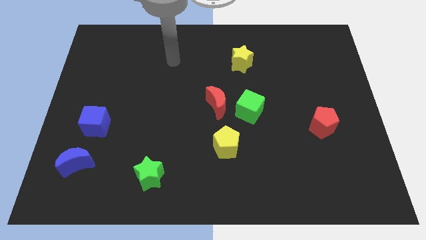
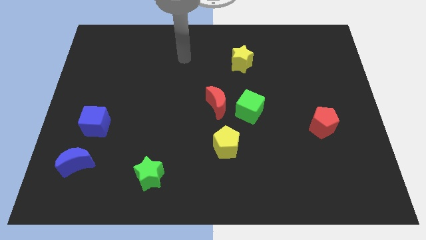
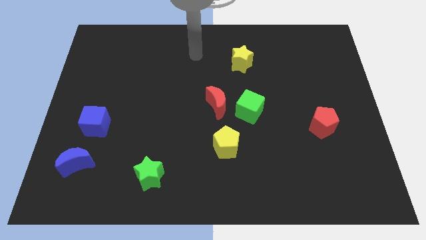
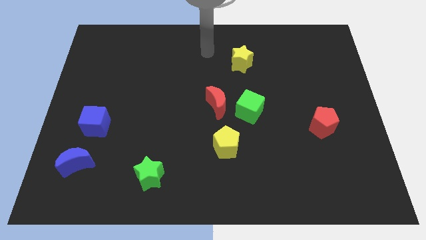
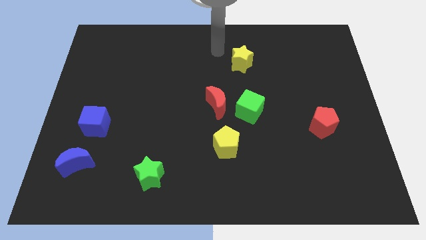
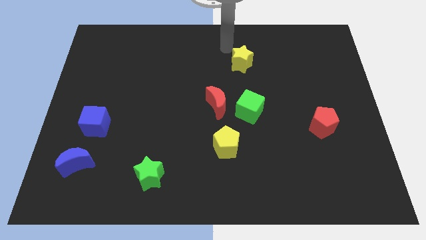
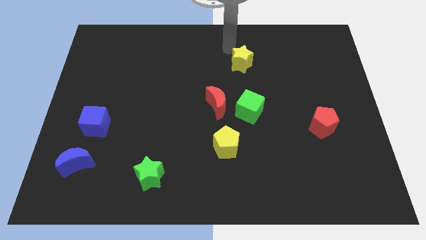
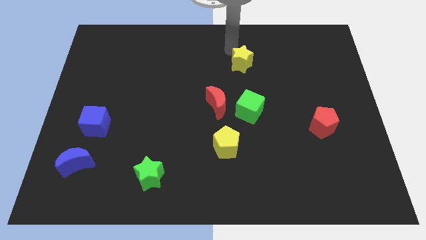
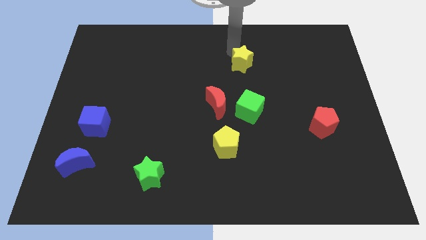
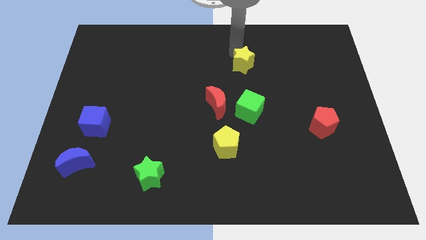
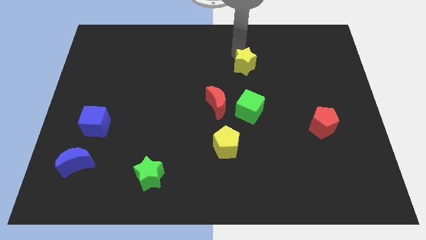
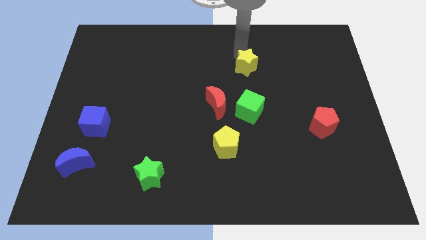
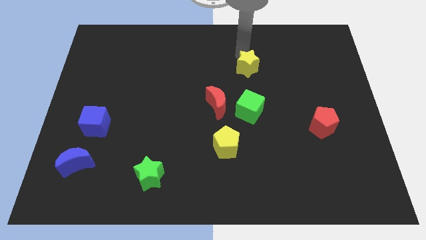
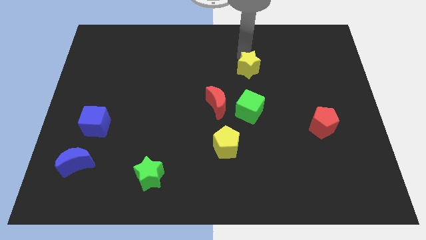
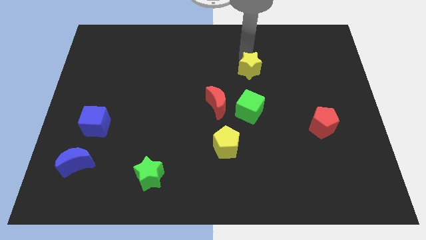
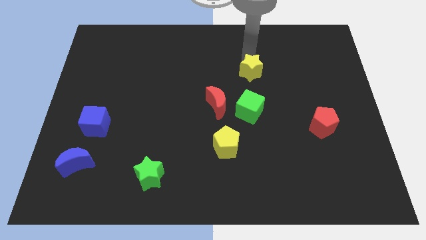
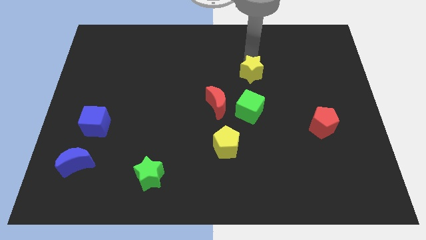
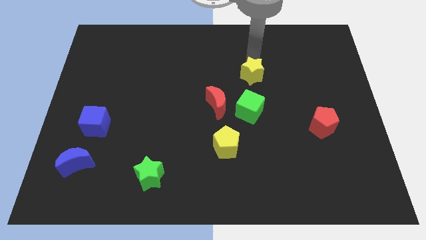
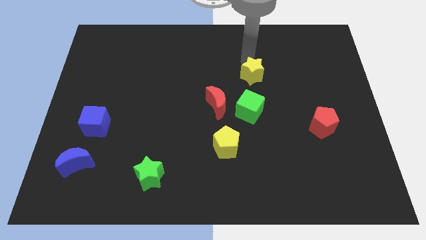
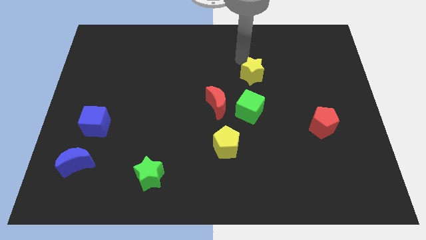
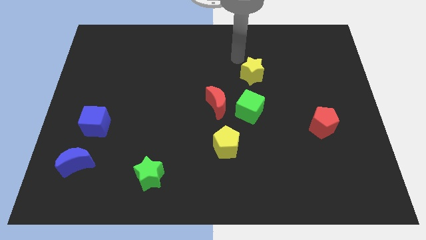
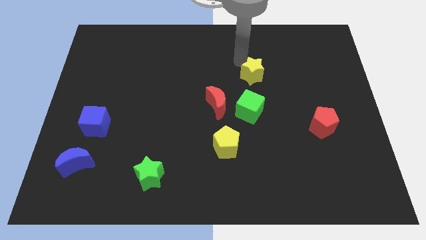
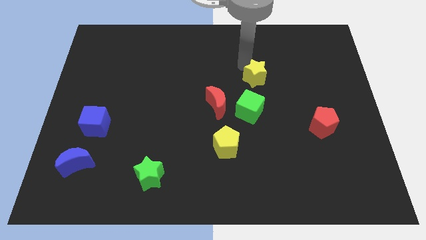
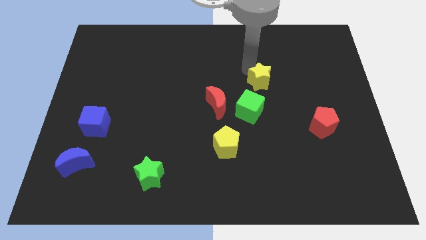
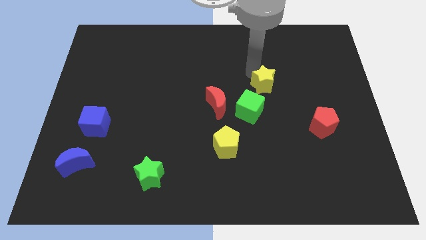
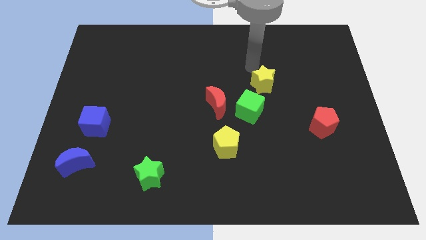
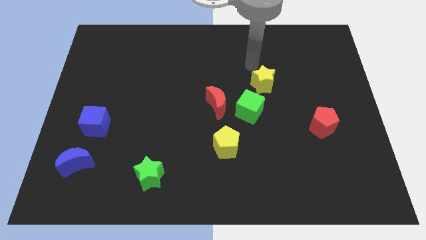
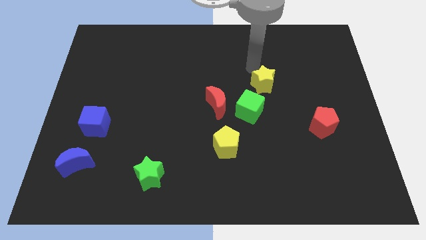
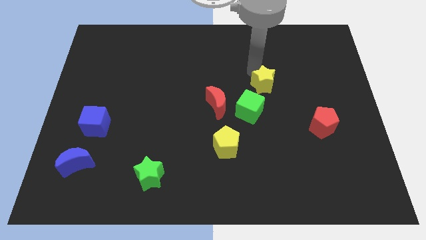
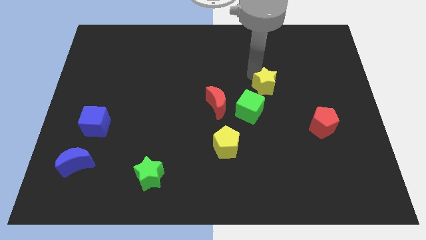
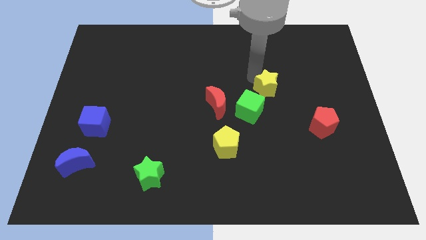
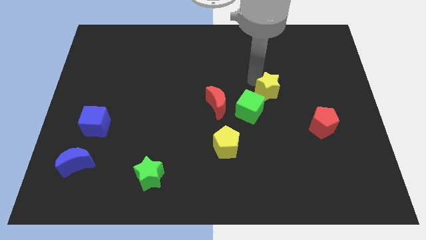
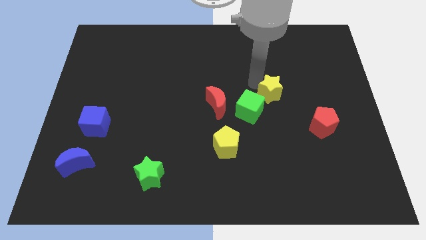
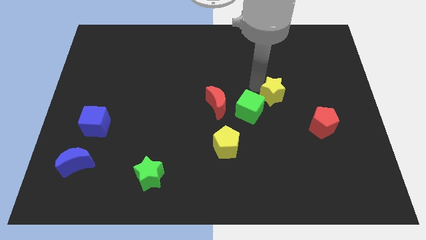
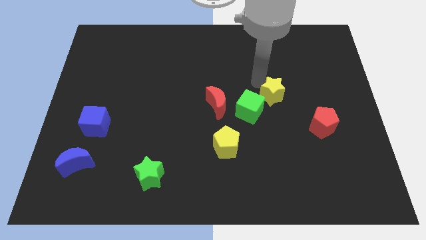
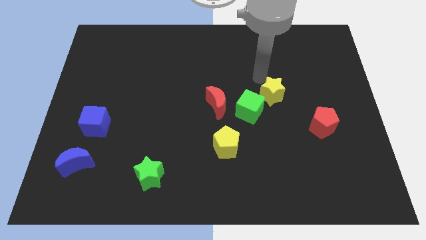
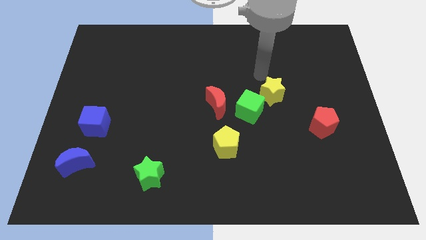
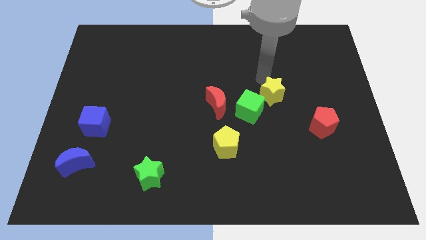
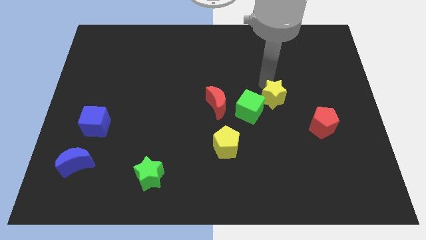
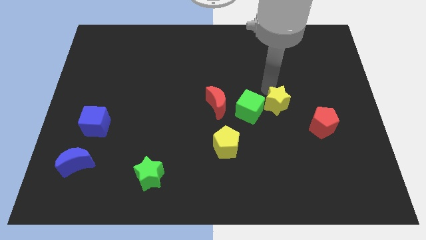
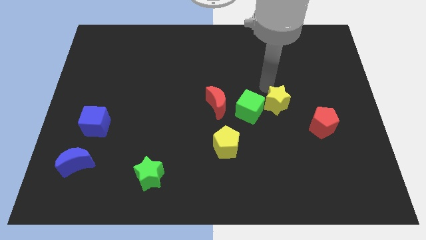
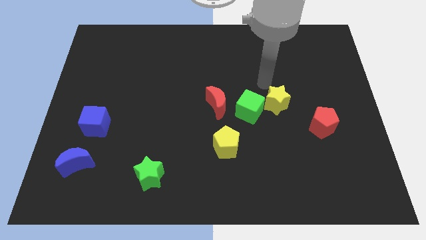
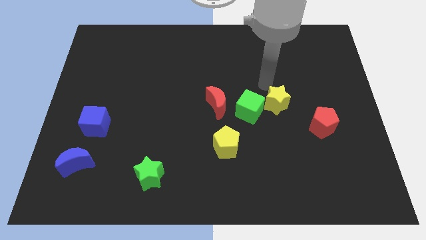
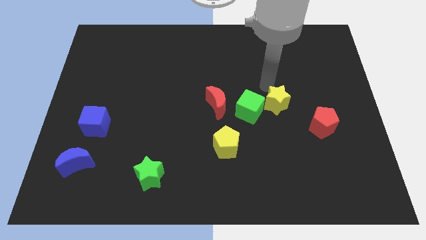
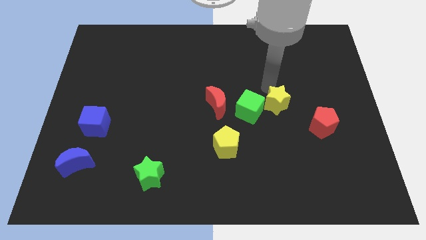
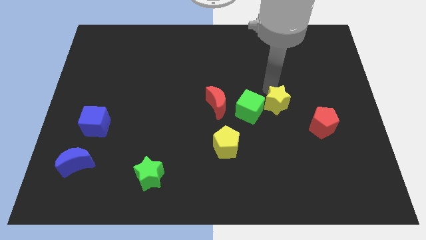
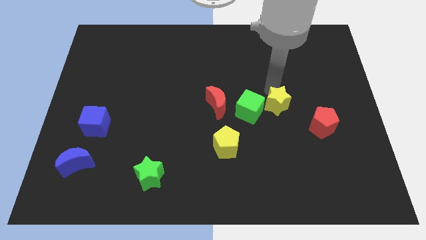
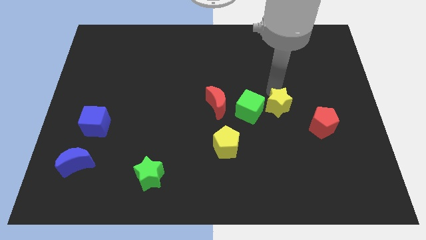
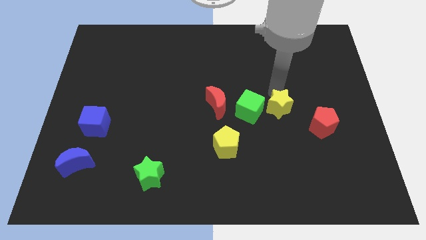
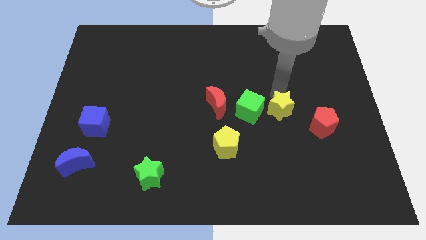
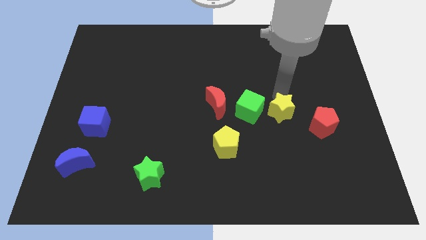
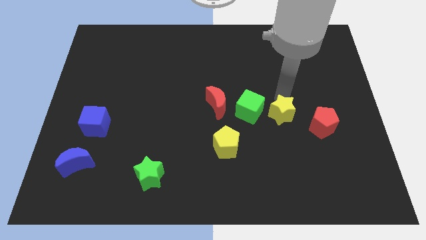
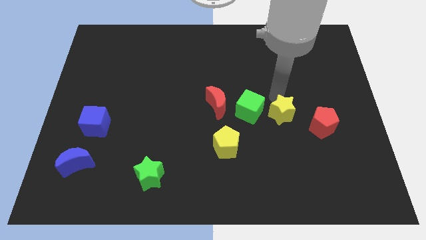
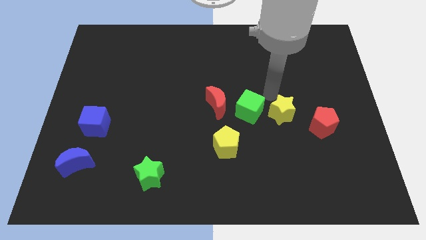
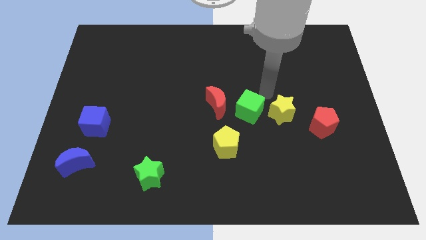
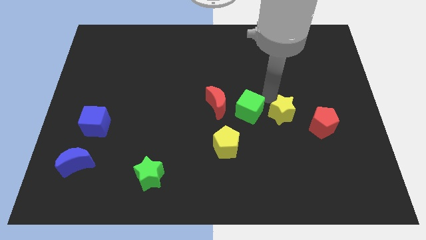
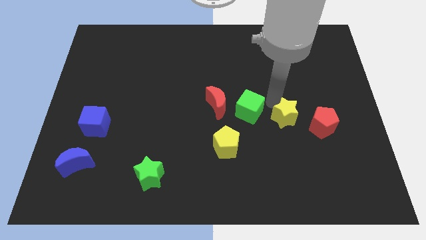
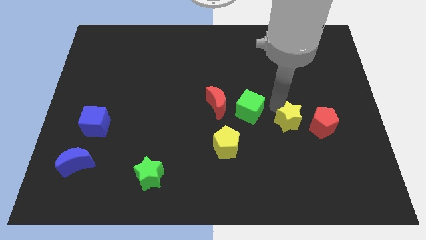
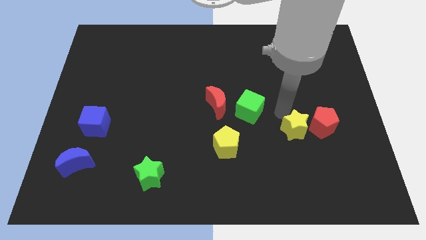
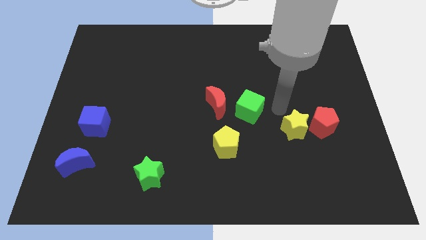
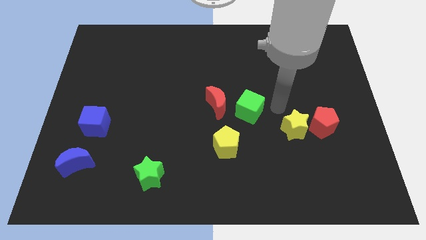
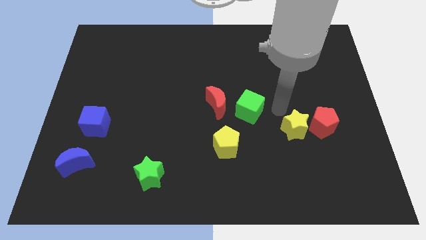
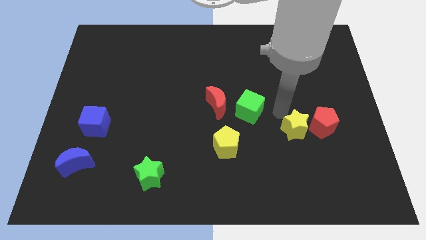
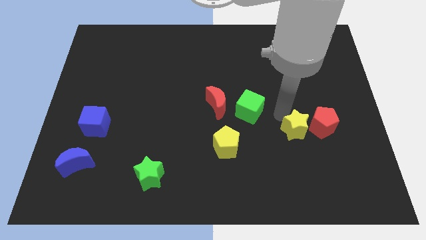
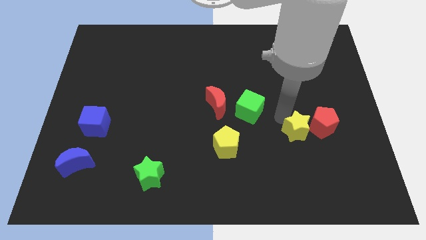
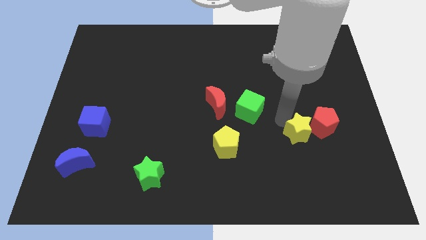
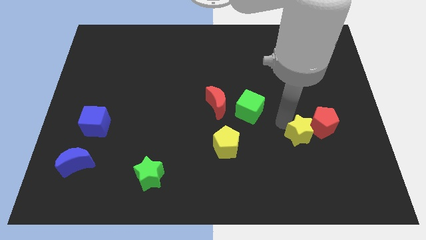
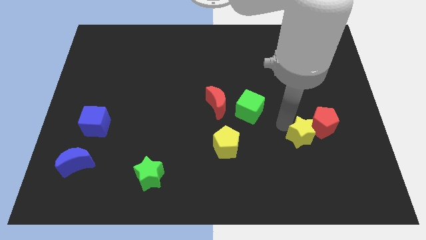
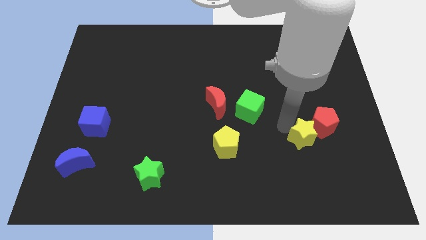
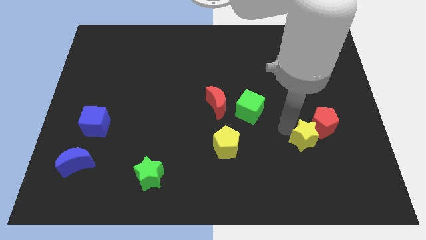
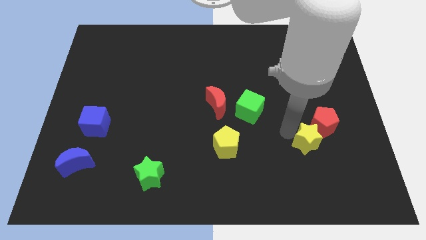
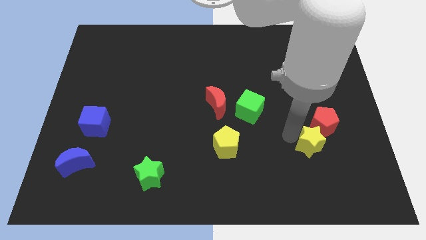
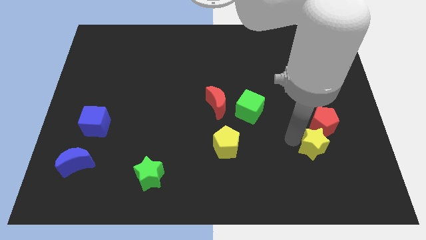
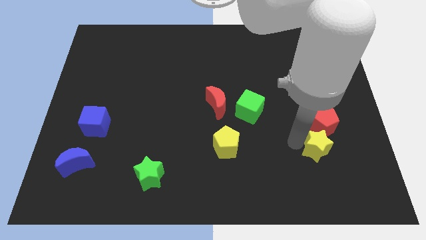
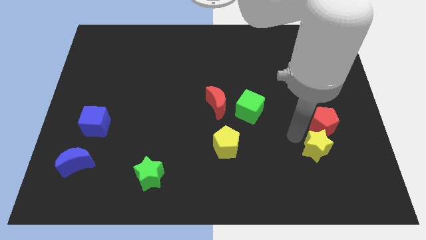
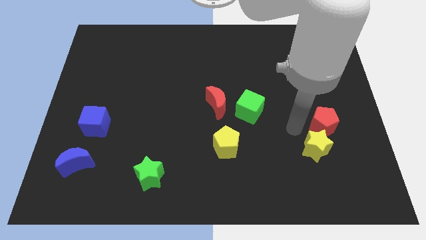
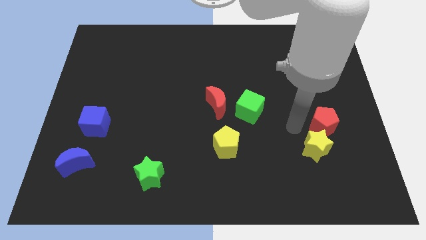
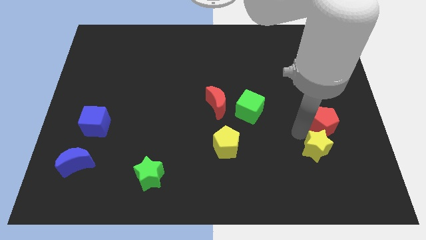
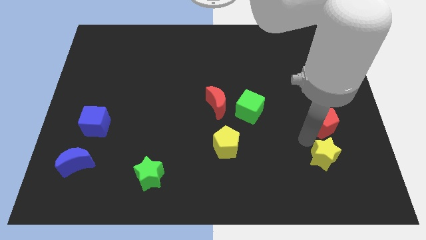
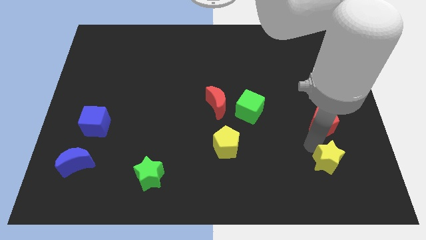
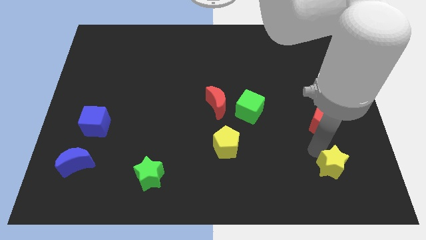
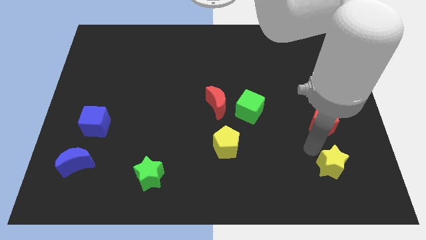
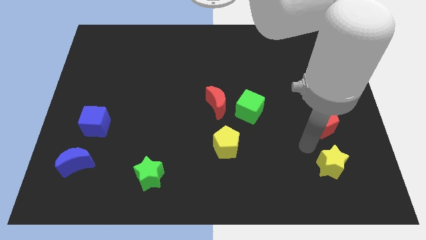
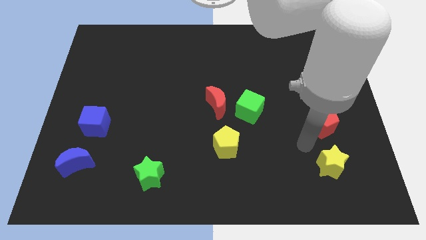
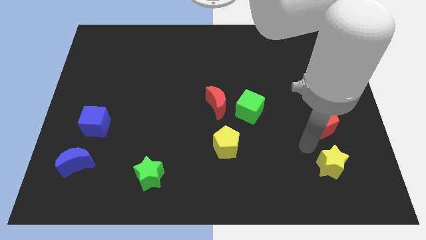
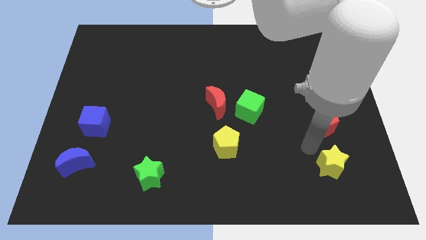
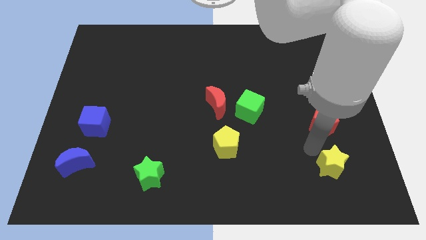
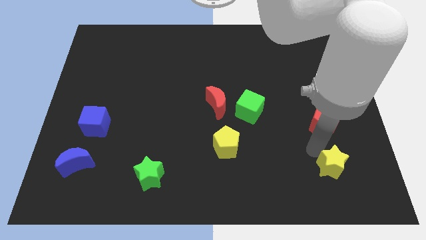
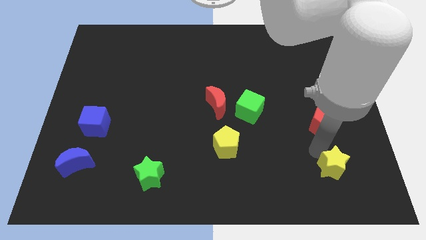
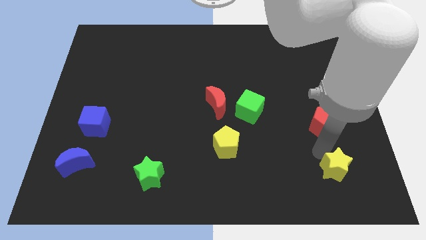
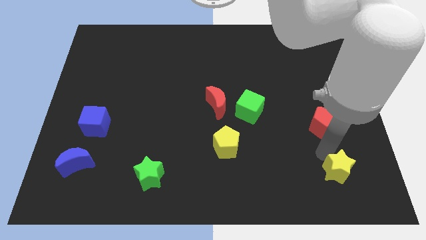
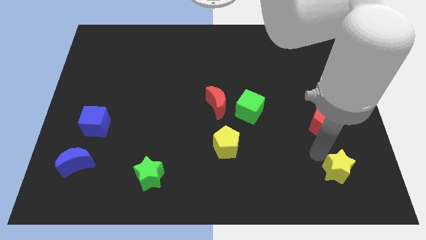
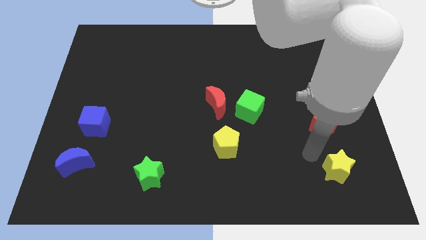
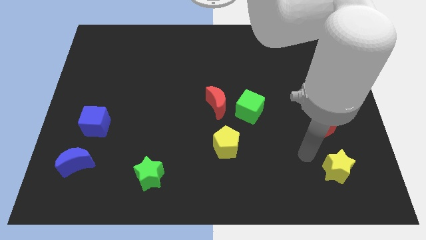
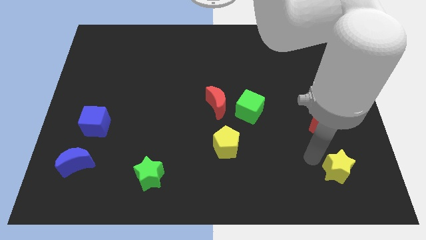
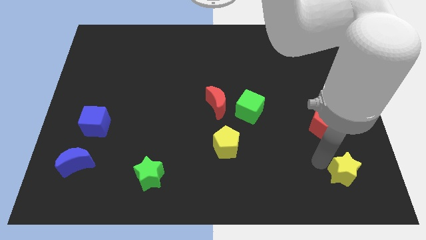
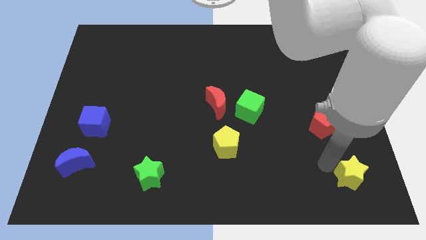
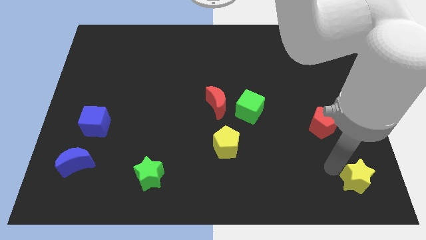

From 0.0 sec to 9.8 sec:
push the yellow star to the lower right corner
